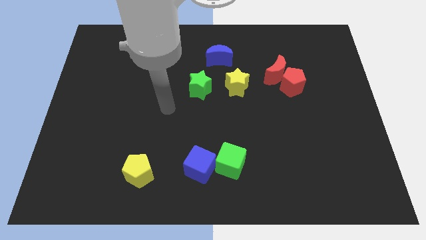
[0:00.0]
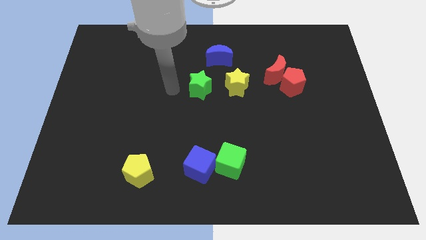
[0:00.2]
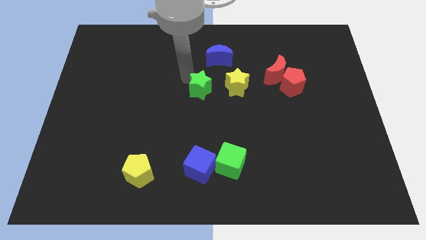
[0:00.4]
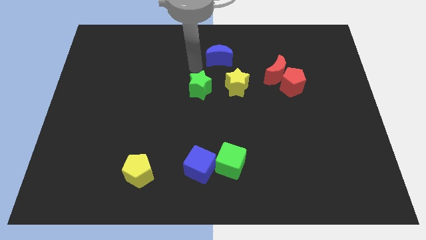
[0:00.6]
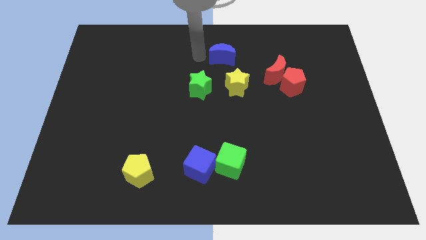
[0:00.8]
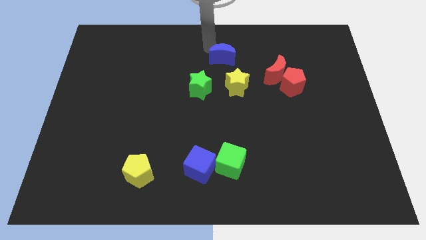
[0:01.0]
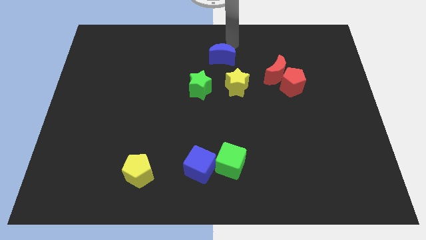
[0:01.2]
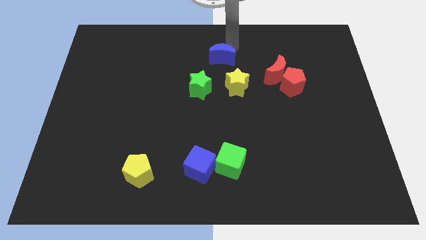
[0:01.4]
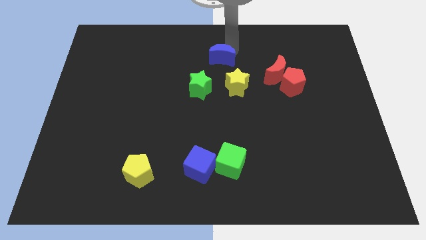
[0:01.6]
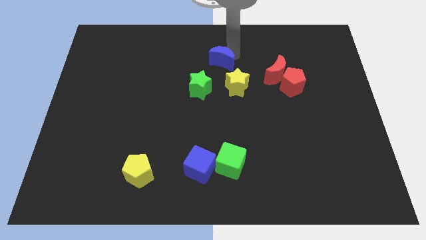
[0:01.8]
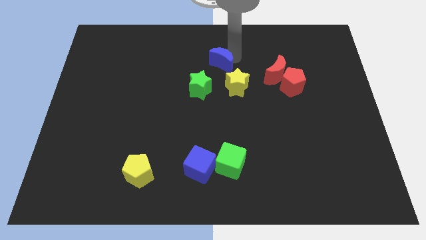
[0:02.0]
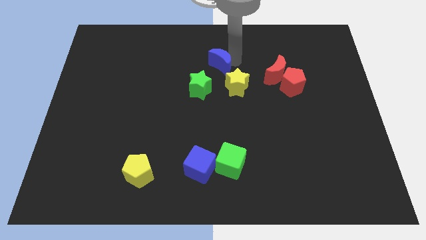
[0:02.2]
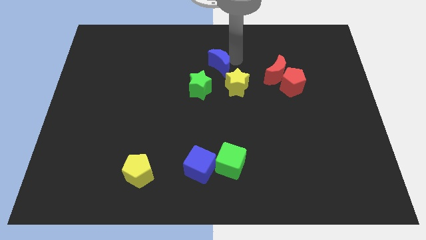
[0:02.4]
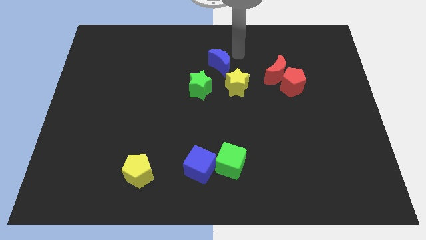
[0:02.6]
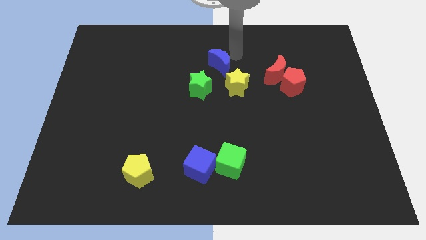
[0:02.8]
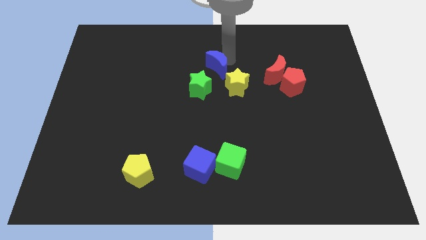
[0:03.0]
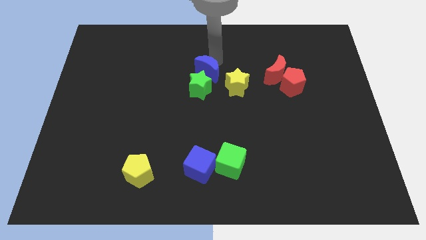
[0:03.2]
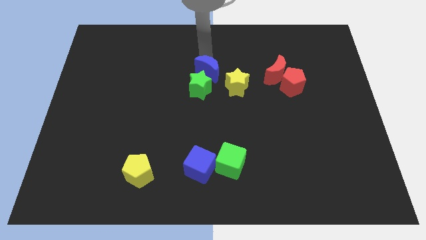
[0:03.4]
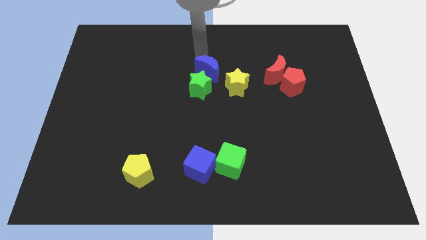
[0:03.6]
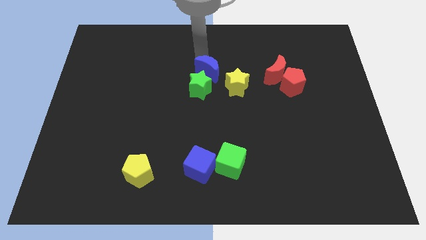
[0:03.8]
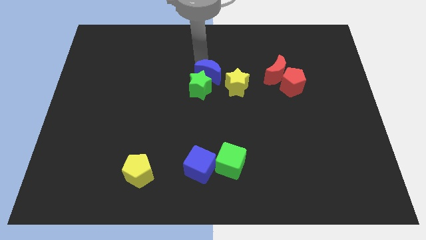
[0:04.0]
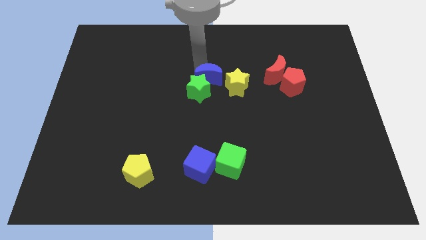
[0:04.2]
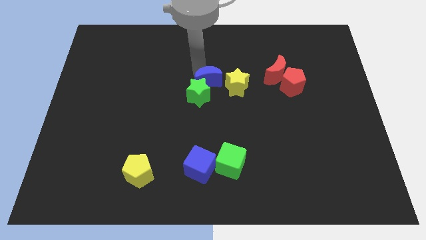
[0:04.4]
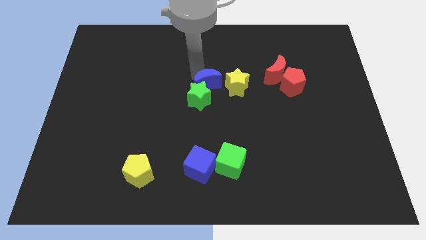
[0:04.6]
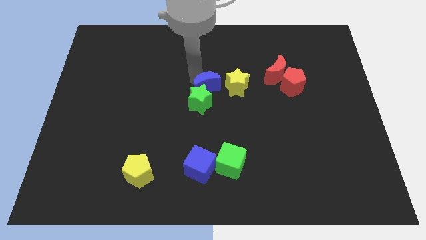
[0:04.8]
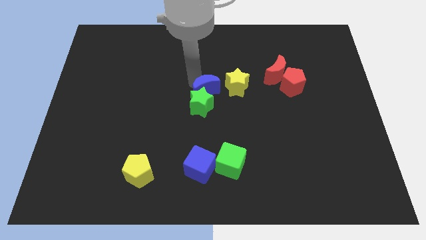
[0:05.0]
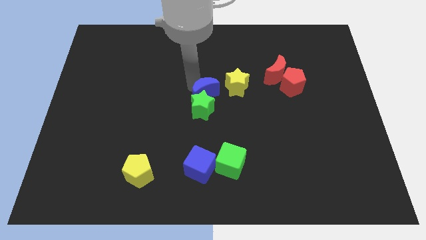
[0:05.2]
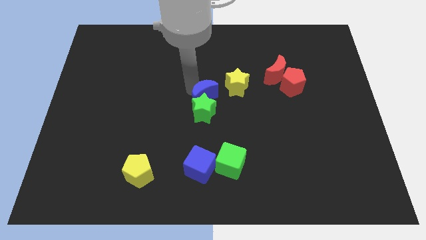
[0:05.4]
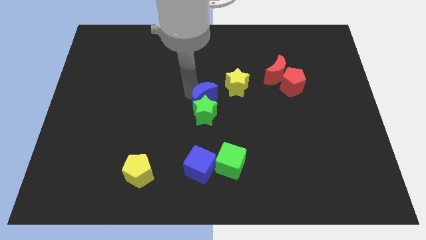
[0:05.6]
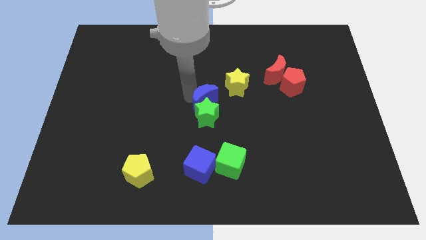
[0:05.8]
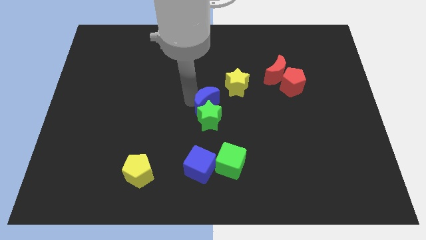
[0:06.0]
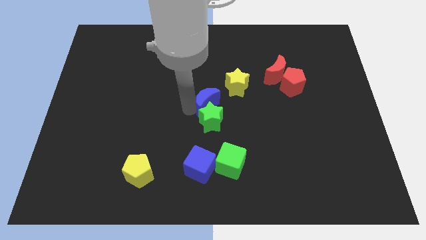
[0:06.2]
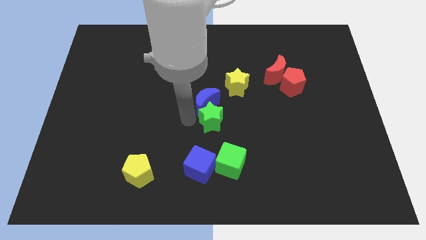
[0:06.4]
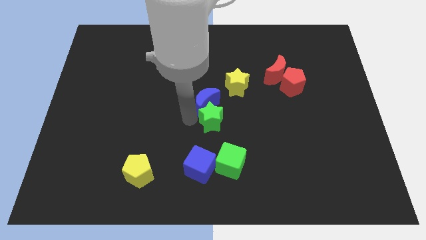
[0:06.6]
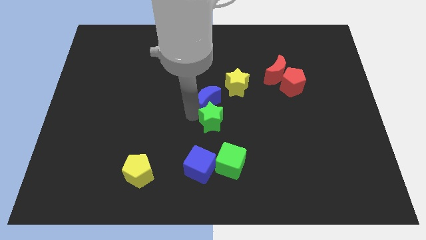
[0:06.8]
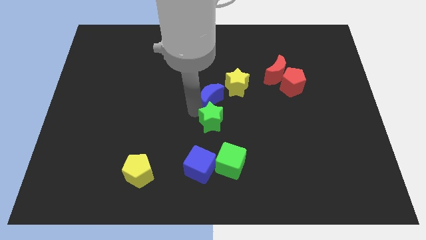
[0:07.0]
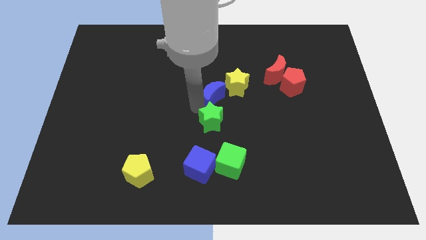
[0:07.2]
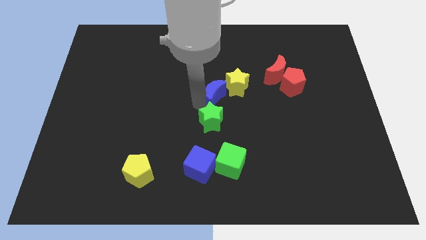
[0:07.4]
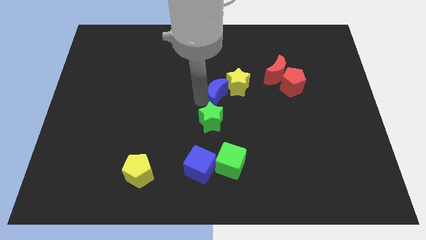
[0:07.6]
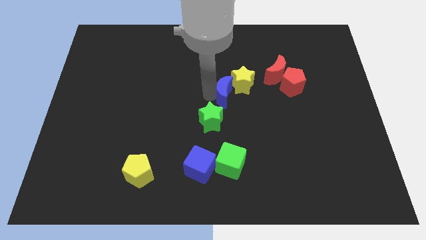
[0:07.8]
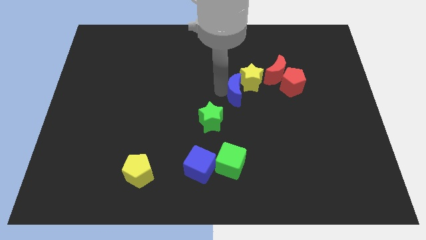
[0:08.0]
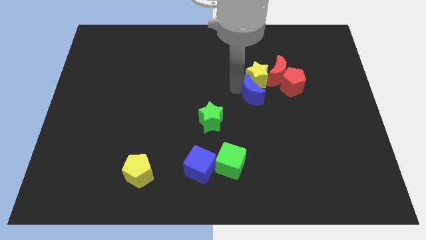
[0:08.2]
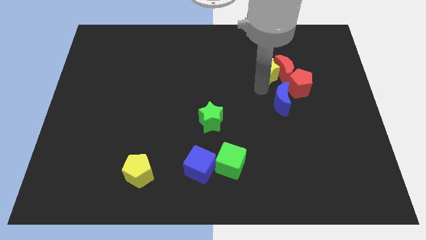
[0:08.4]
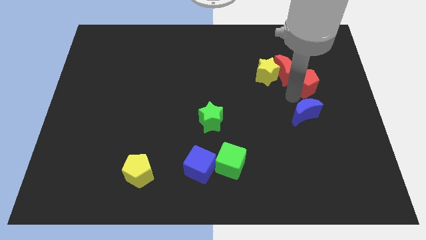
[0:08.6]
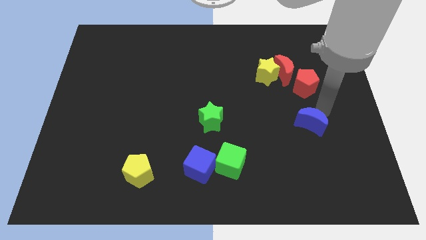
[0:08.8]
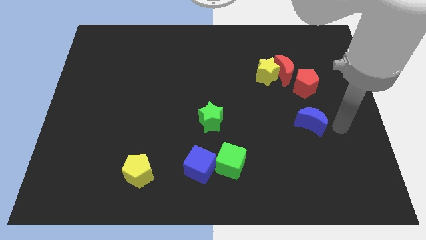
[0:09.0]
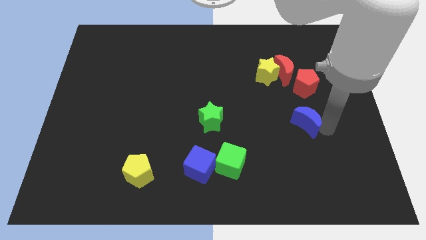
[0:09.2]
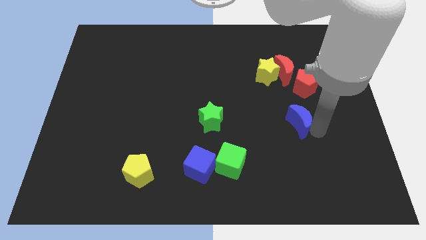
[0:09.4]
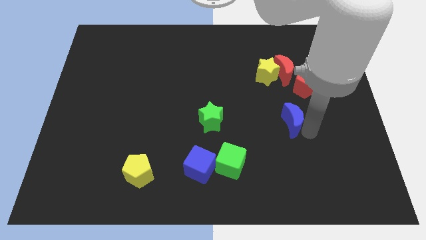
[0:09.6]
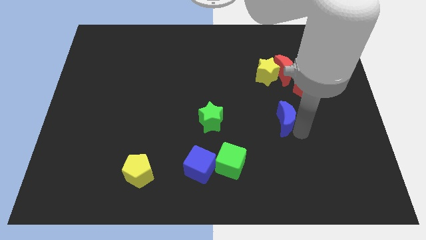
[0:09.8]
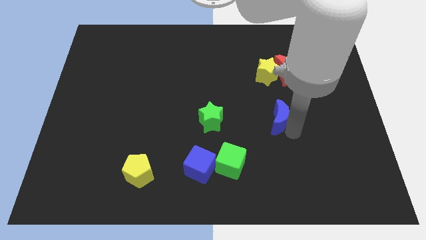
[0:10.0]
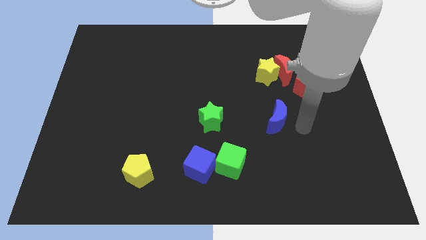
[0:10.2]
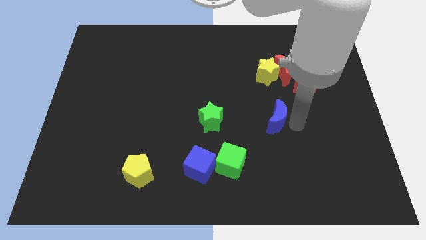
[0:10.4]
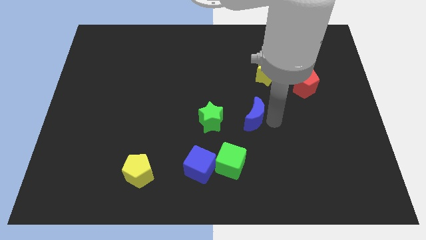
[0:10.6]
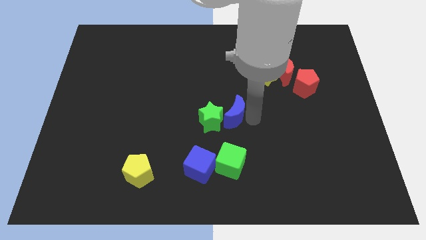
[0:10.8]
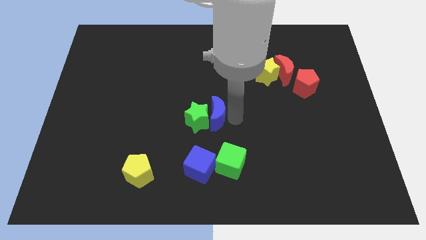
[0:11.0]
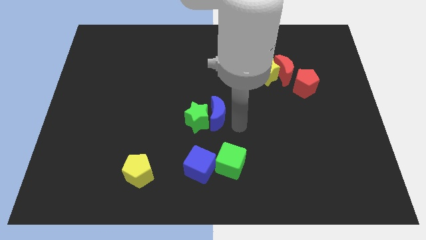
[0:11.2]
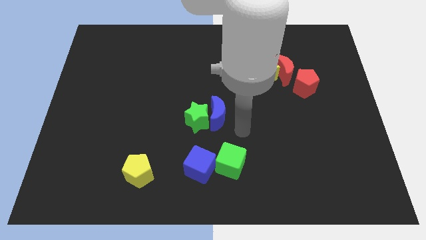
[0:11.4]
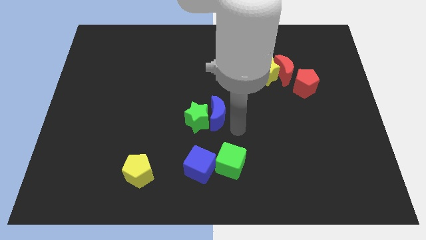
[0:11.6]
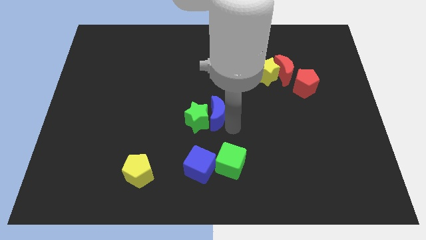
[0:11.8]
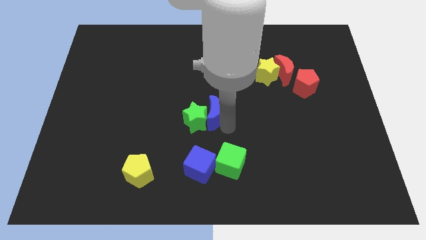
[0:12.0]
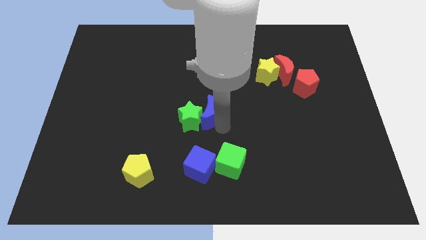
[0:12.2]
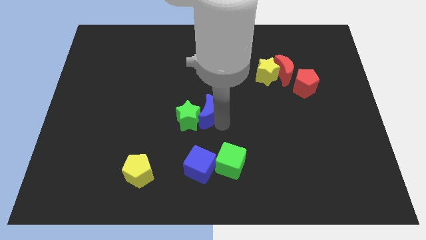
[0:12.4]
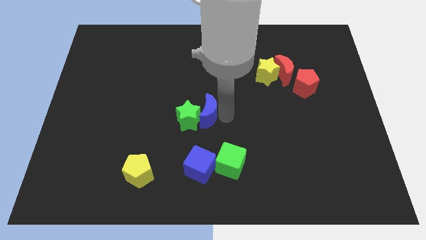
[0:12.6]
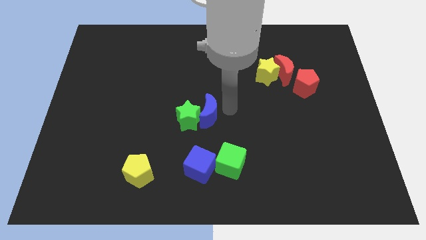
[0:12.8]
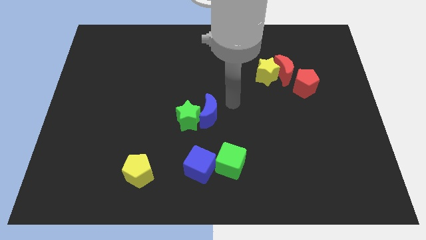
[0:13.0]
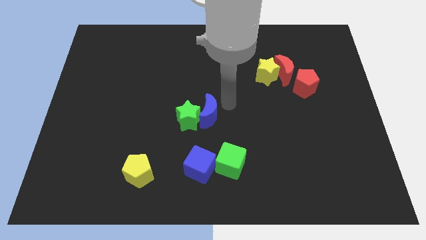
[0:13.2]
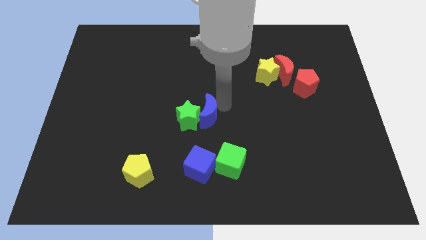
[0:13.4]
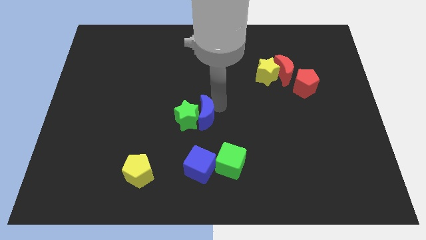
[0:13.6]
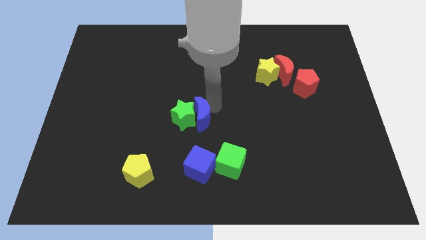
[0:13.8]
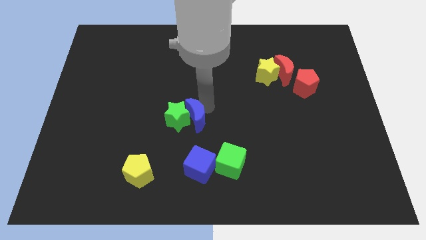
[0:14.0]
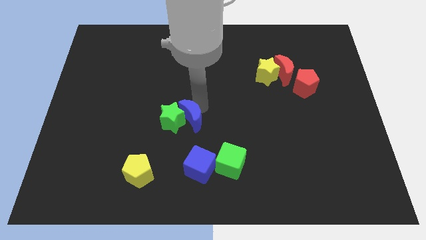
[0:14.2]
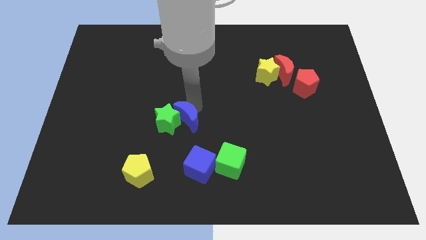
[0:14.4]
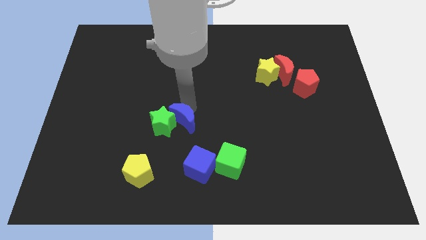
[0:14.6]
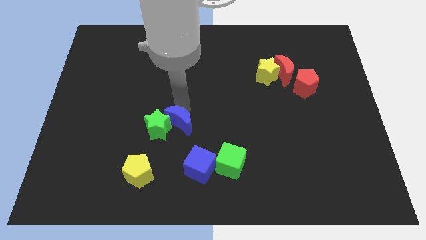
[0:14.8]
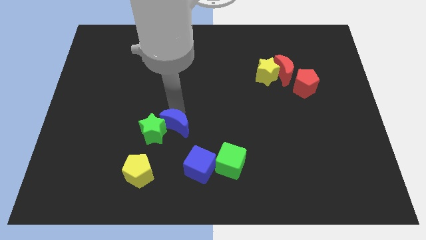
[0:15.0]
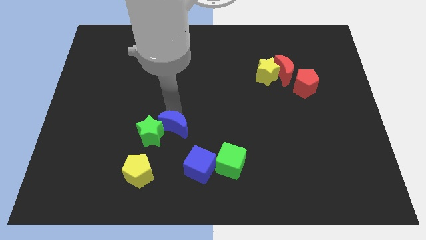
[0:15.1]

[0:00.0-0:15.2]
push the blue moon to the top left side of the blue cube
